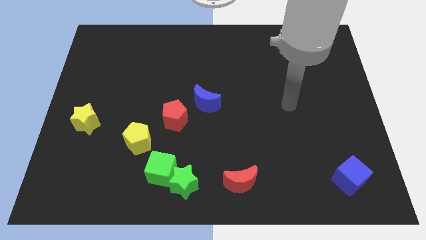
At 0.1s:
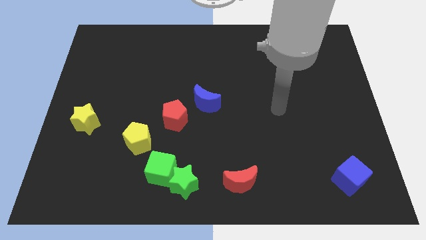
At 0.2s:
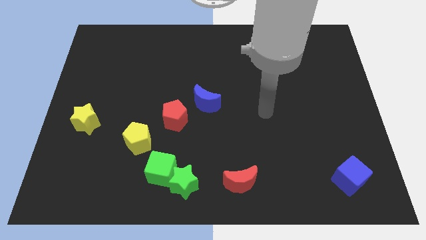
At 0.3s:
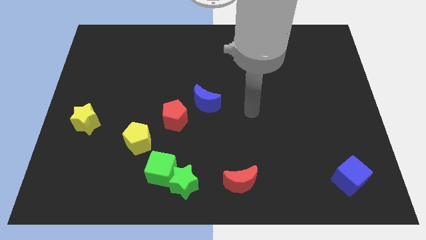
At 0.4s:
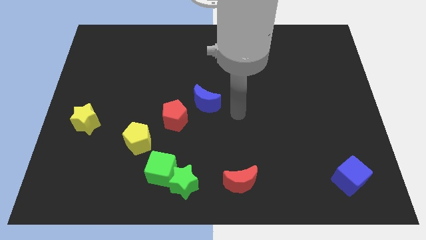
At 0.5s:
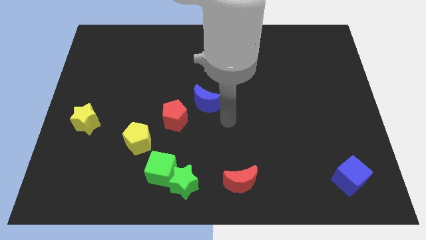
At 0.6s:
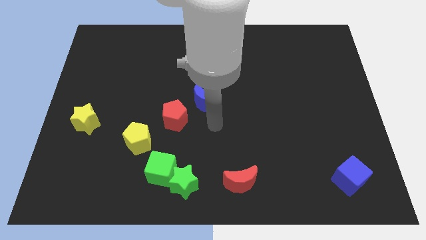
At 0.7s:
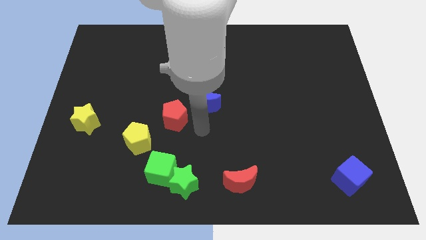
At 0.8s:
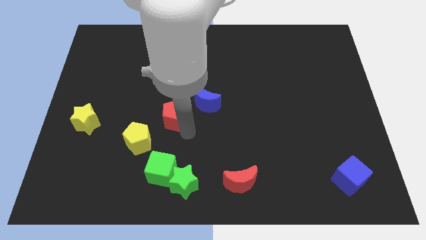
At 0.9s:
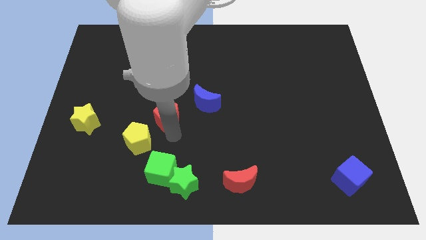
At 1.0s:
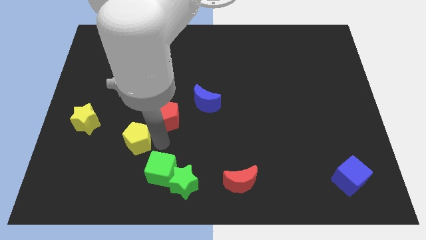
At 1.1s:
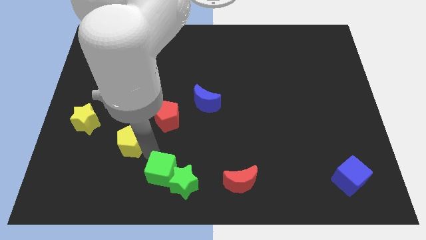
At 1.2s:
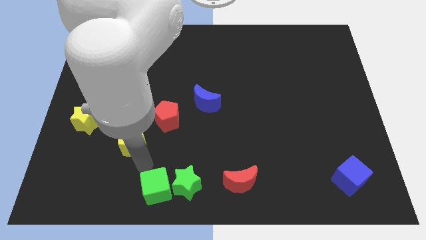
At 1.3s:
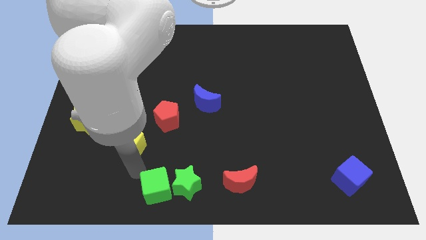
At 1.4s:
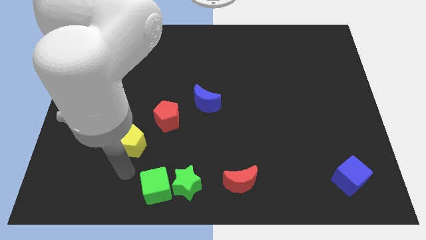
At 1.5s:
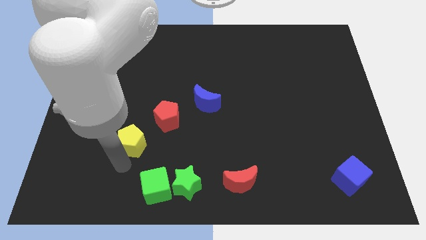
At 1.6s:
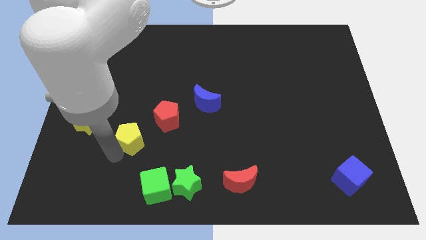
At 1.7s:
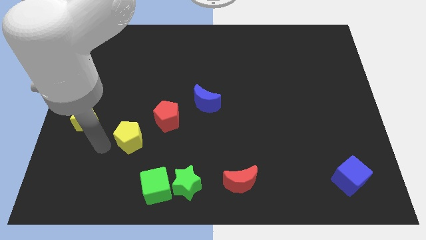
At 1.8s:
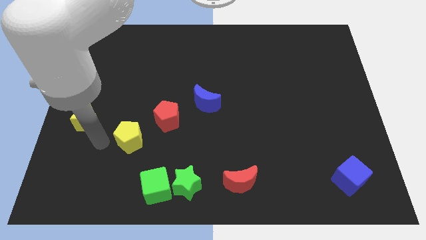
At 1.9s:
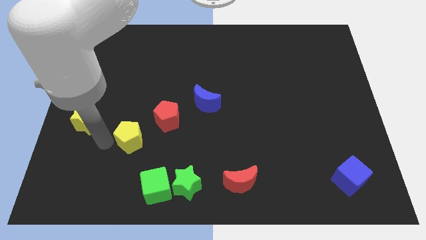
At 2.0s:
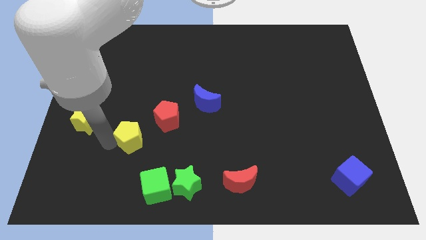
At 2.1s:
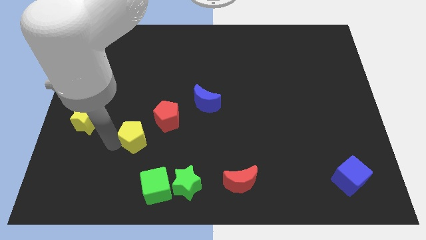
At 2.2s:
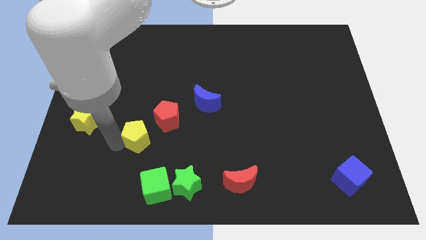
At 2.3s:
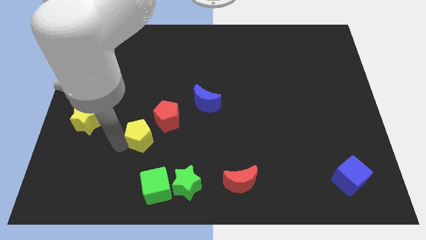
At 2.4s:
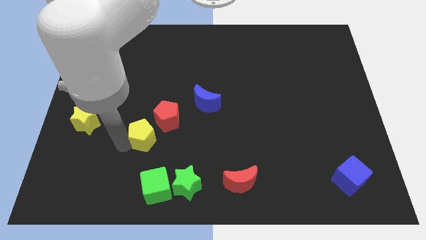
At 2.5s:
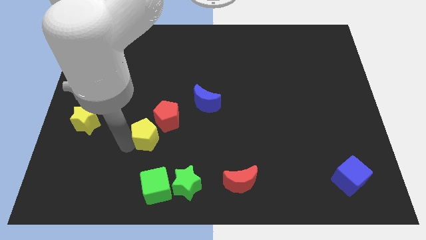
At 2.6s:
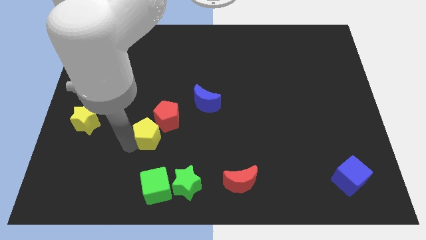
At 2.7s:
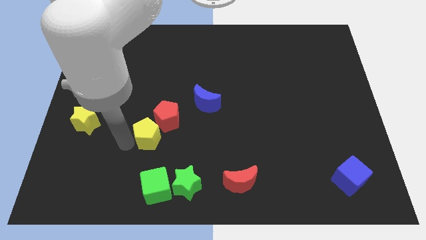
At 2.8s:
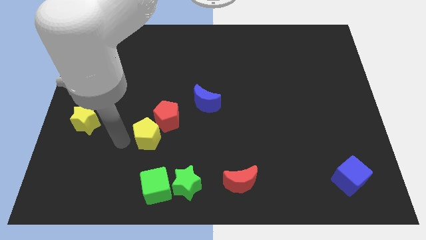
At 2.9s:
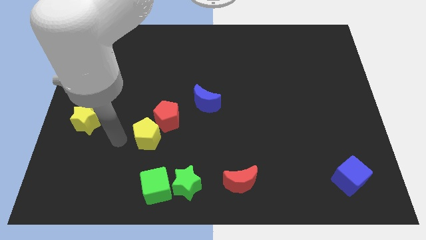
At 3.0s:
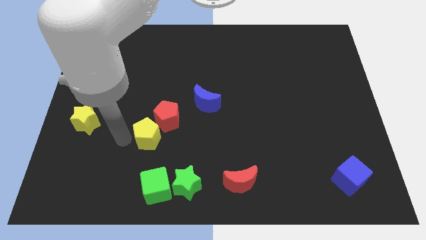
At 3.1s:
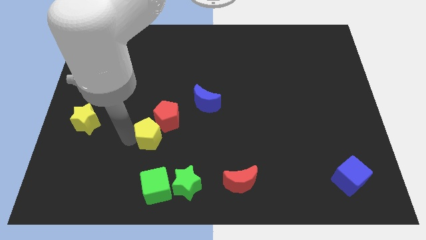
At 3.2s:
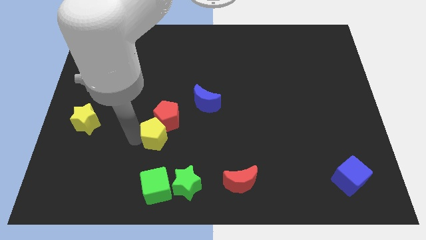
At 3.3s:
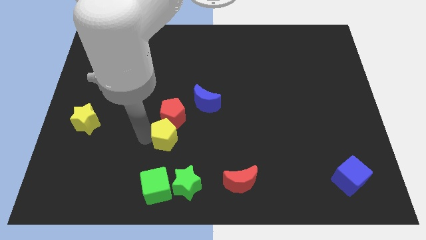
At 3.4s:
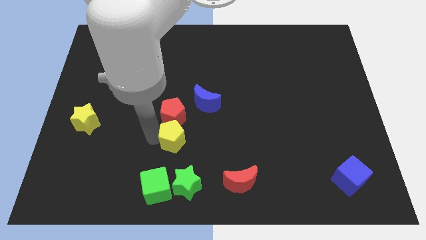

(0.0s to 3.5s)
slightly push the yellow pentagon right

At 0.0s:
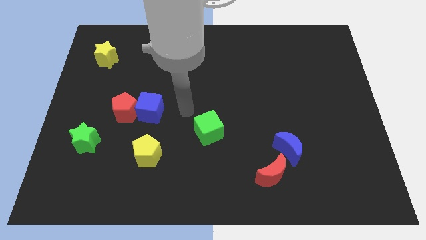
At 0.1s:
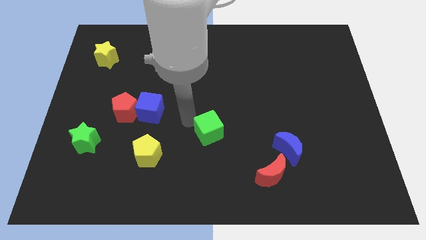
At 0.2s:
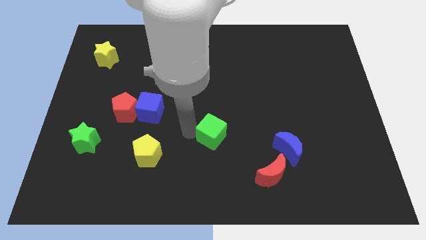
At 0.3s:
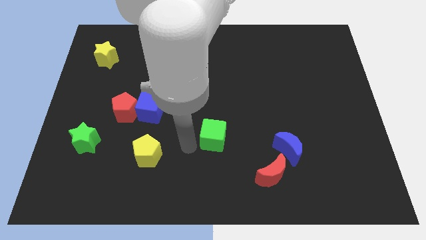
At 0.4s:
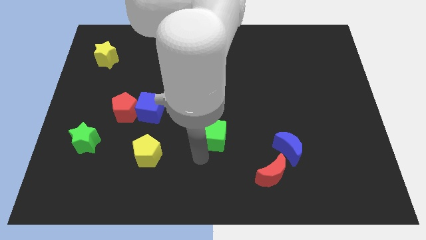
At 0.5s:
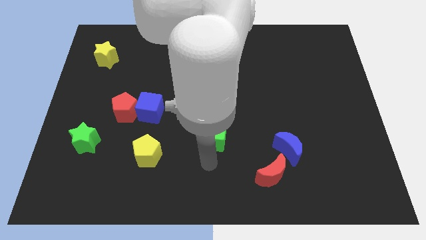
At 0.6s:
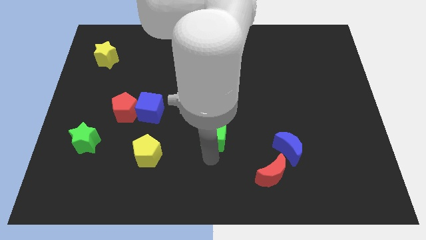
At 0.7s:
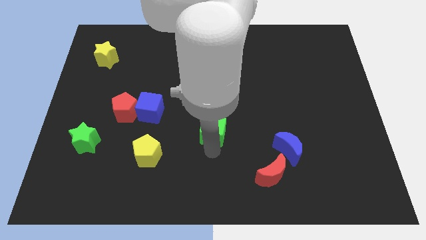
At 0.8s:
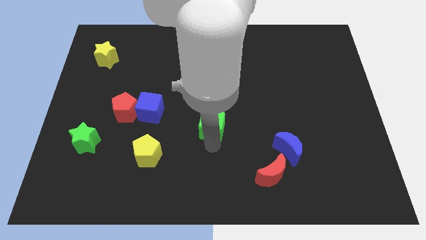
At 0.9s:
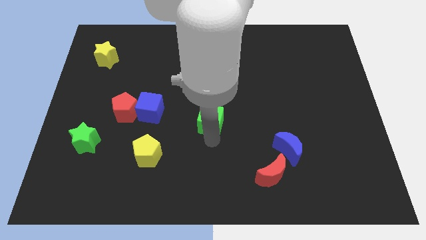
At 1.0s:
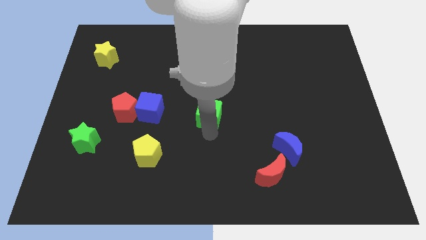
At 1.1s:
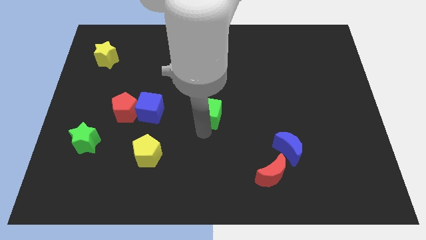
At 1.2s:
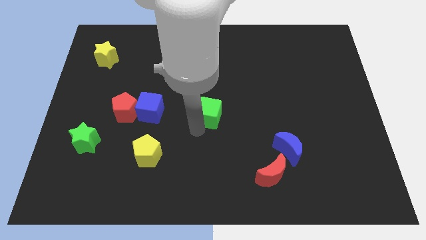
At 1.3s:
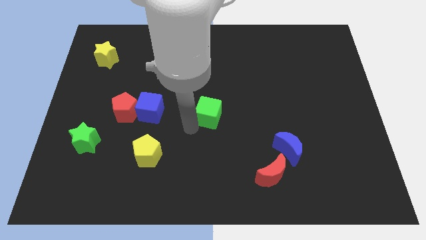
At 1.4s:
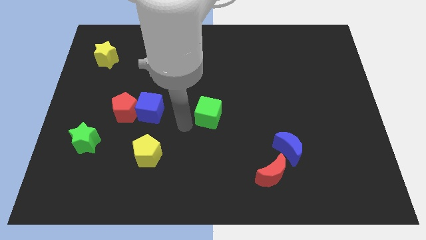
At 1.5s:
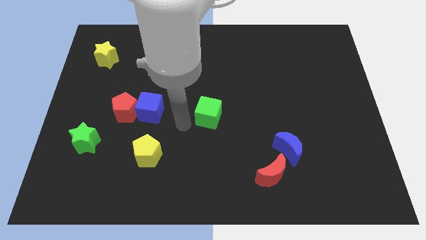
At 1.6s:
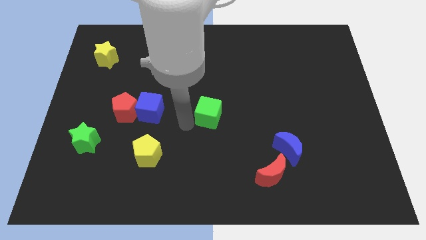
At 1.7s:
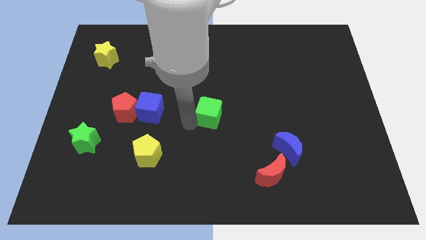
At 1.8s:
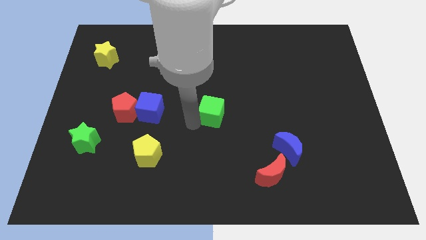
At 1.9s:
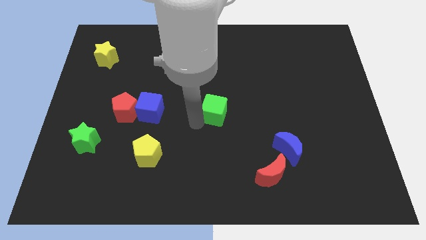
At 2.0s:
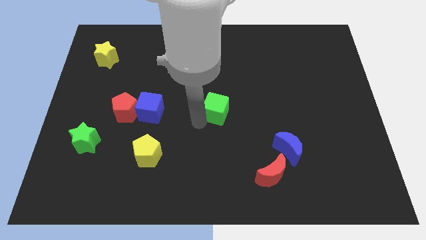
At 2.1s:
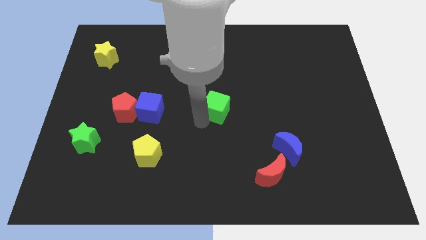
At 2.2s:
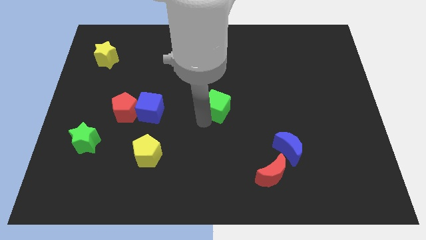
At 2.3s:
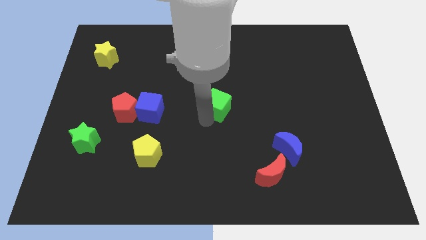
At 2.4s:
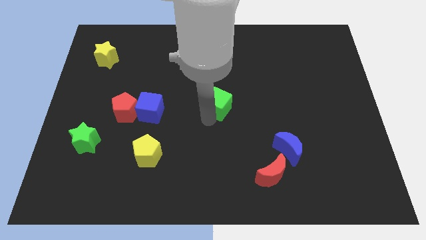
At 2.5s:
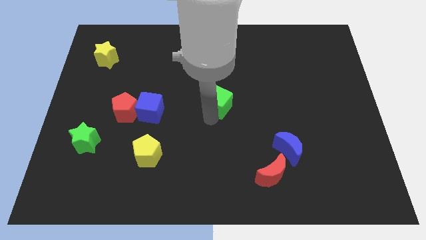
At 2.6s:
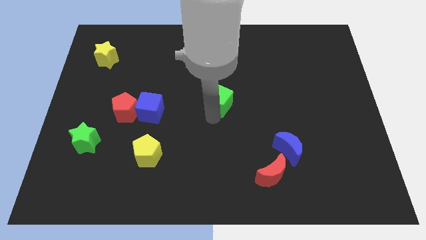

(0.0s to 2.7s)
push the green cube diagonally up and to the right somewhat

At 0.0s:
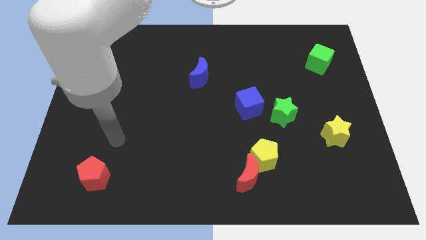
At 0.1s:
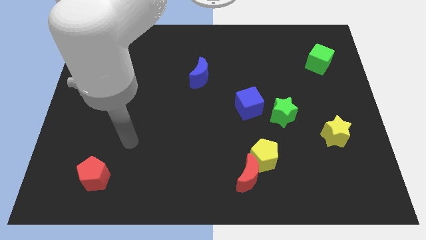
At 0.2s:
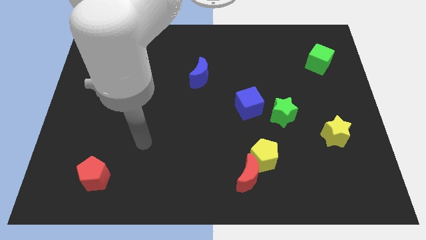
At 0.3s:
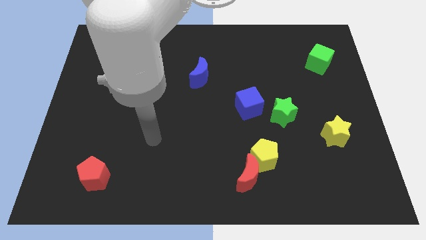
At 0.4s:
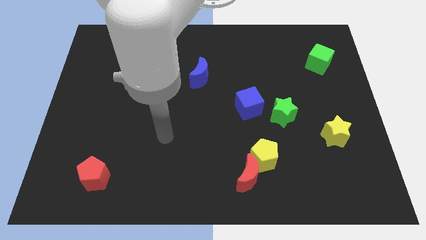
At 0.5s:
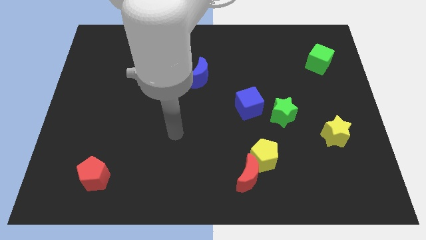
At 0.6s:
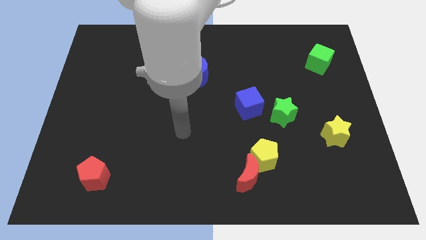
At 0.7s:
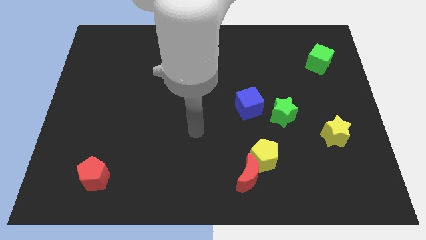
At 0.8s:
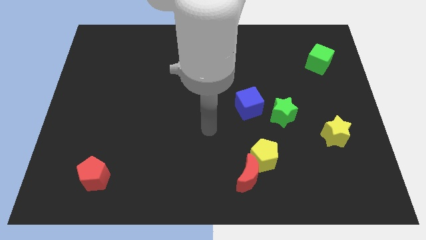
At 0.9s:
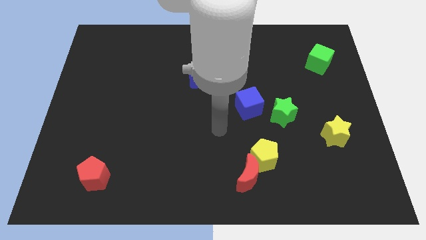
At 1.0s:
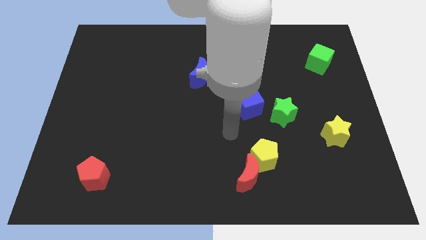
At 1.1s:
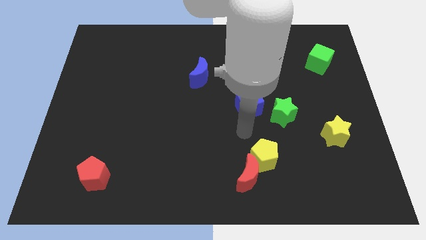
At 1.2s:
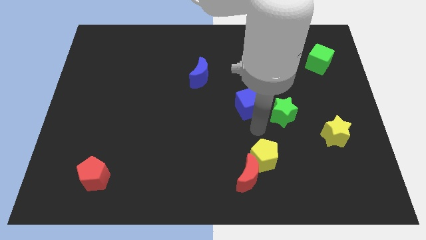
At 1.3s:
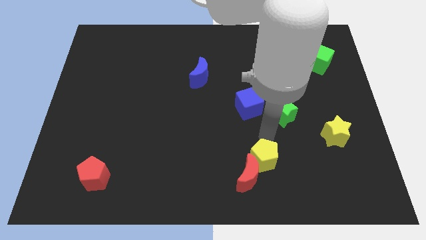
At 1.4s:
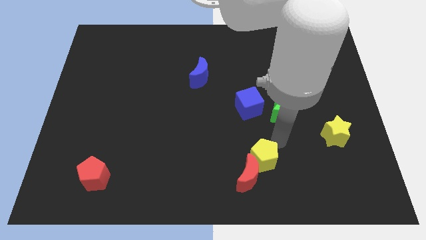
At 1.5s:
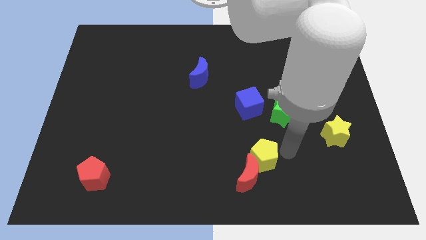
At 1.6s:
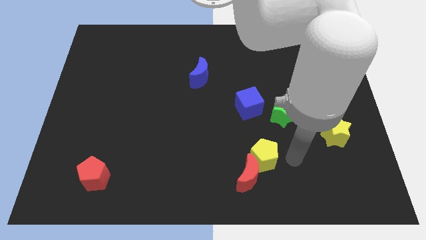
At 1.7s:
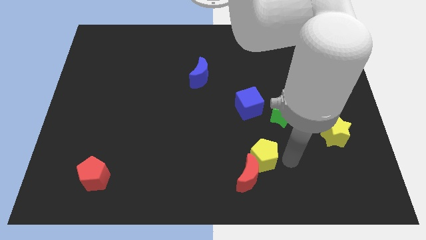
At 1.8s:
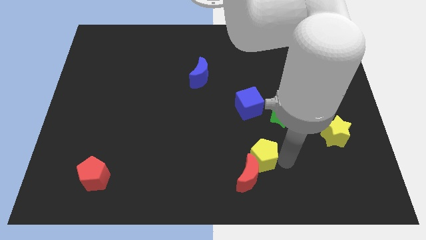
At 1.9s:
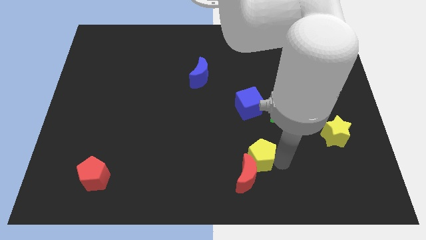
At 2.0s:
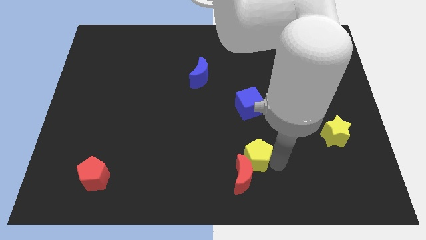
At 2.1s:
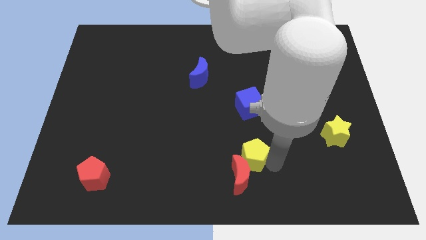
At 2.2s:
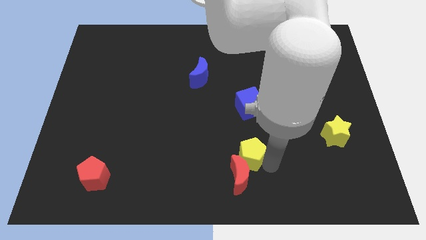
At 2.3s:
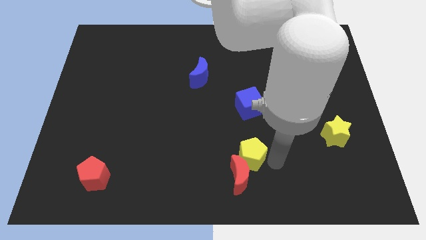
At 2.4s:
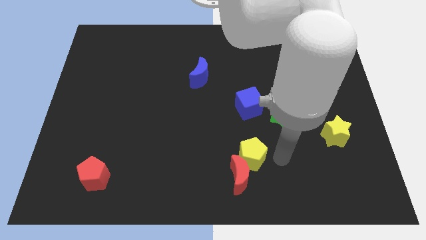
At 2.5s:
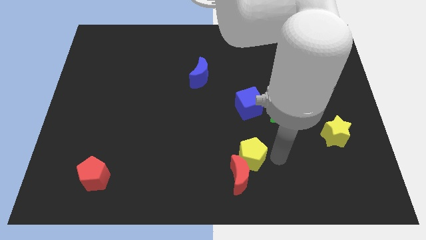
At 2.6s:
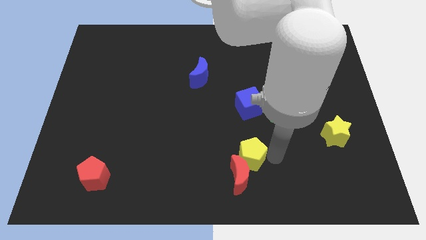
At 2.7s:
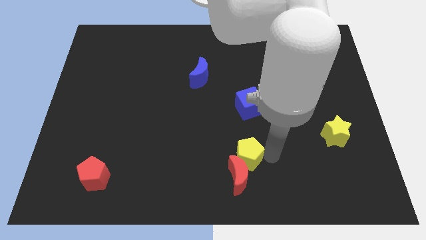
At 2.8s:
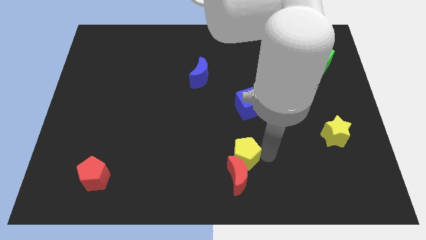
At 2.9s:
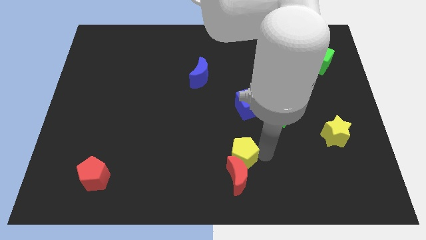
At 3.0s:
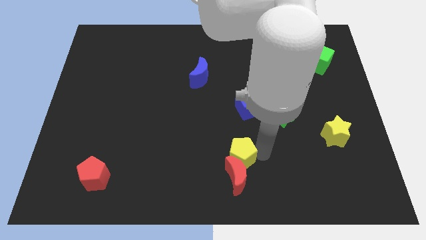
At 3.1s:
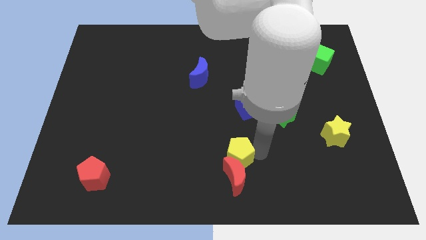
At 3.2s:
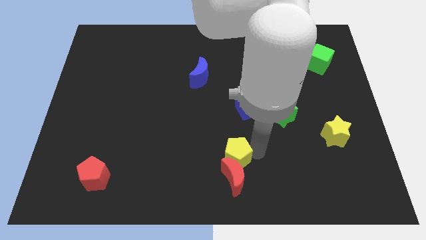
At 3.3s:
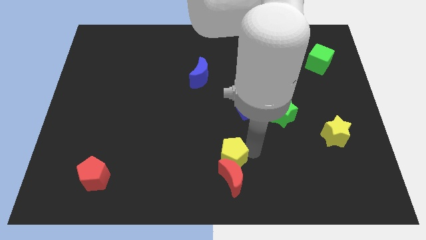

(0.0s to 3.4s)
slide the yellow pentagon left a little
